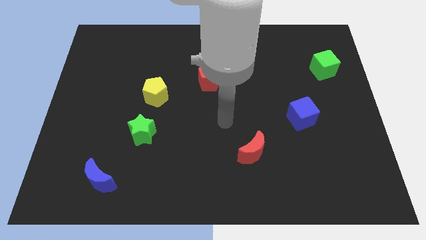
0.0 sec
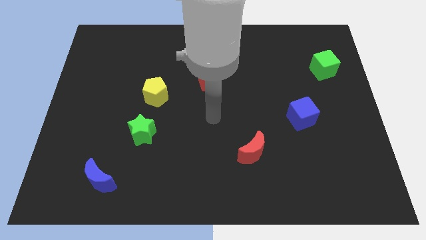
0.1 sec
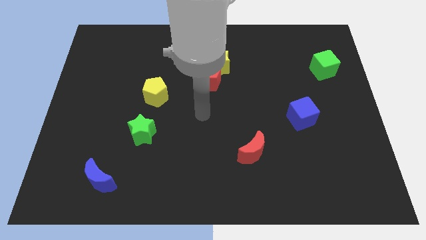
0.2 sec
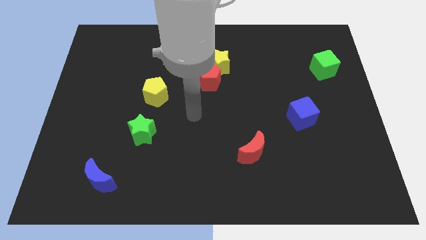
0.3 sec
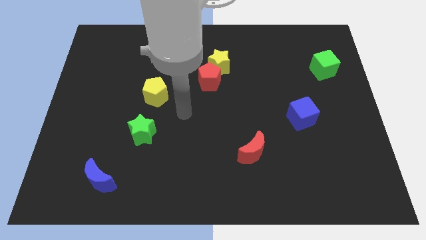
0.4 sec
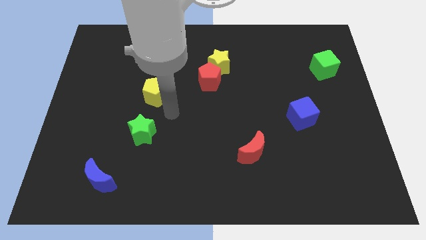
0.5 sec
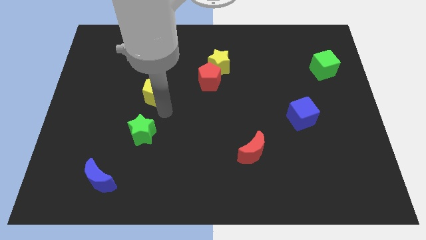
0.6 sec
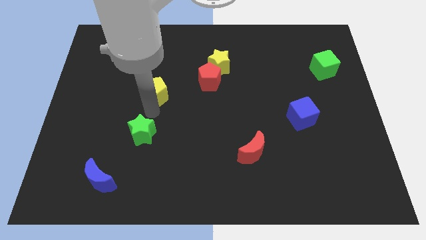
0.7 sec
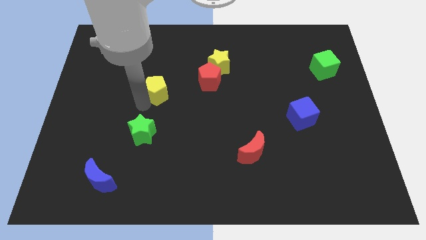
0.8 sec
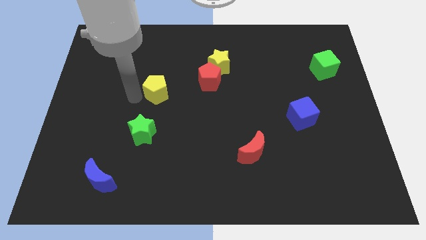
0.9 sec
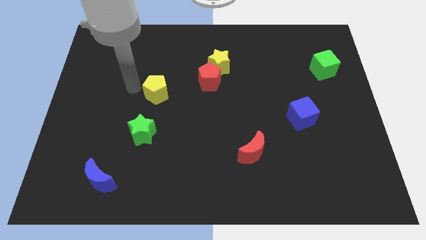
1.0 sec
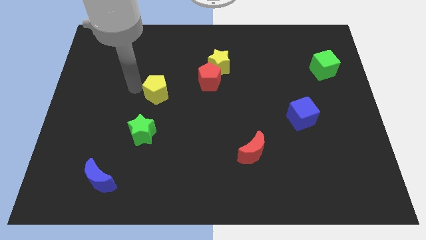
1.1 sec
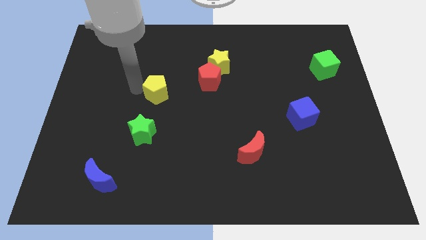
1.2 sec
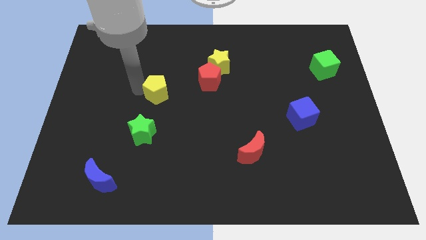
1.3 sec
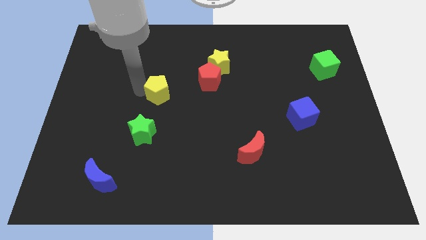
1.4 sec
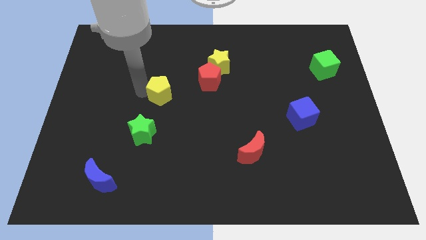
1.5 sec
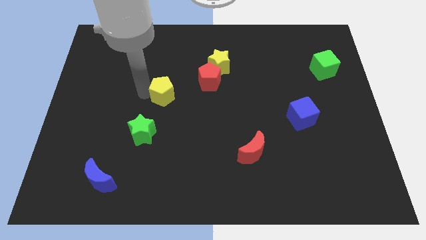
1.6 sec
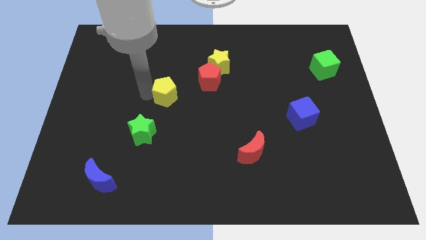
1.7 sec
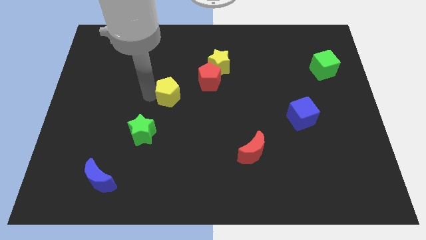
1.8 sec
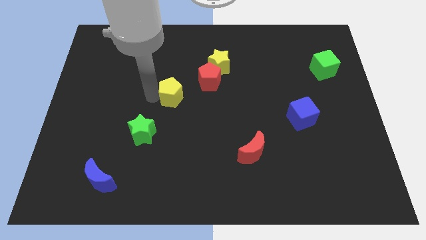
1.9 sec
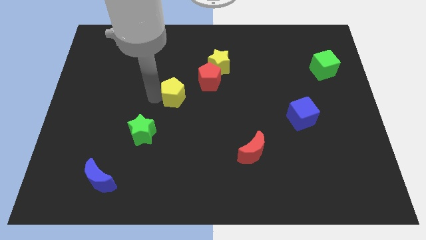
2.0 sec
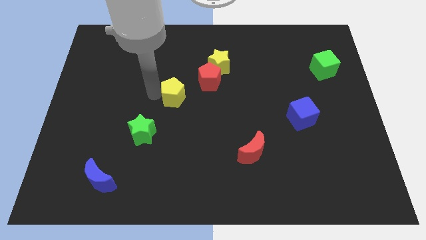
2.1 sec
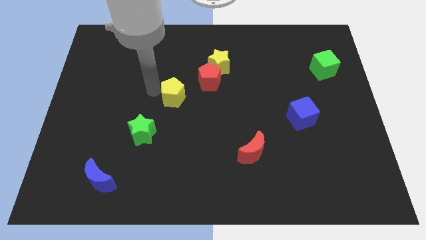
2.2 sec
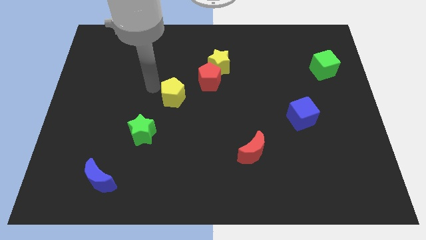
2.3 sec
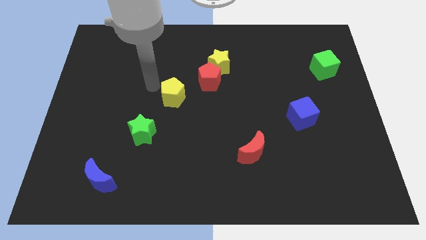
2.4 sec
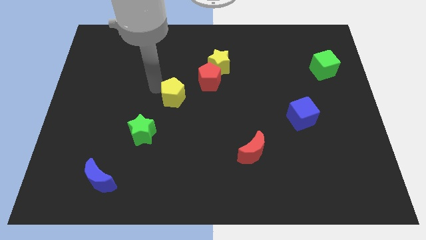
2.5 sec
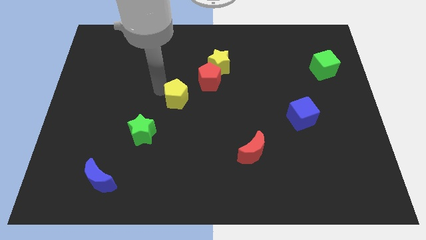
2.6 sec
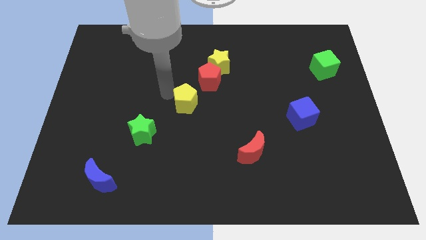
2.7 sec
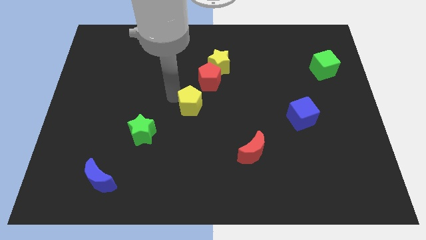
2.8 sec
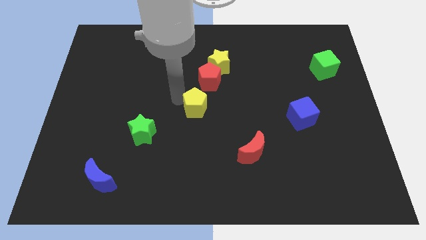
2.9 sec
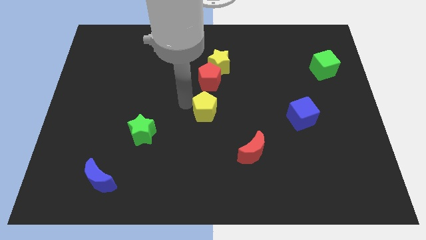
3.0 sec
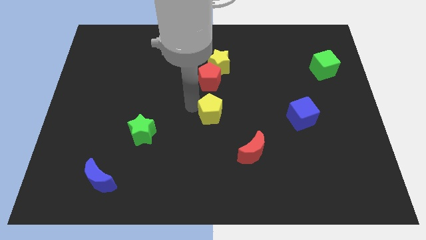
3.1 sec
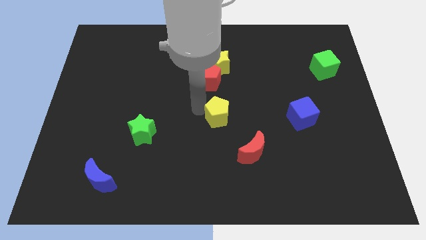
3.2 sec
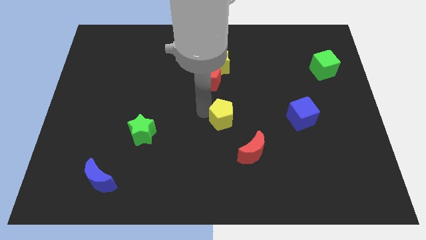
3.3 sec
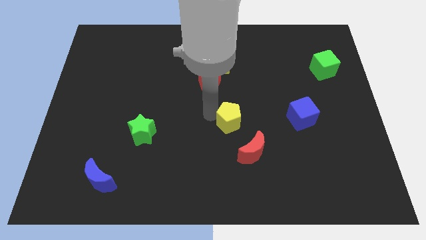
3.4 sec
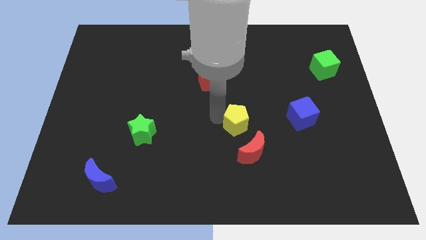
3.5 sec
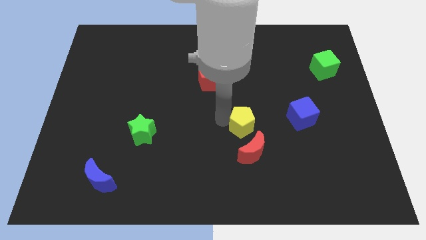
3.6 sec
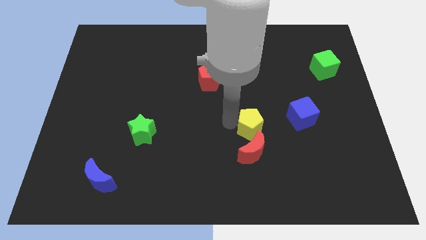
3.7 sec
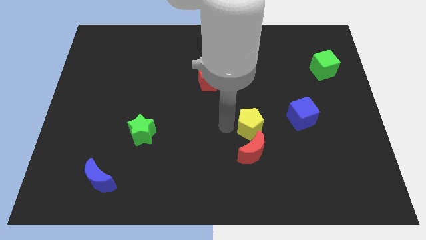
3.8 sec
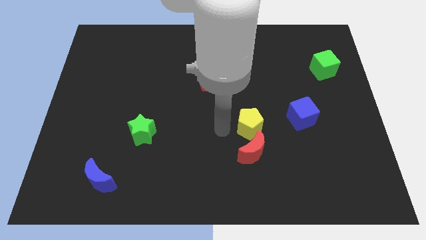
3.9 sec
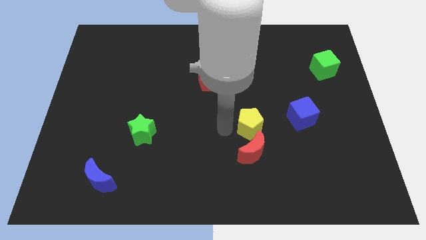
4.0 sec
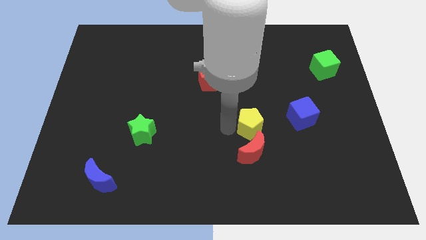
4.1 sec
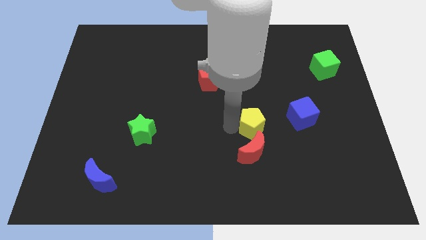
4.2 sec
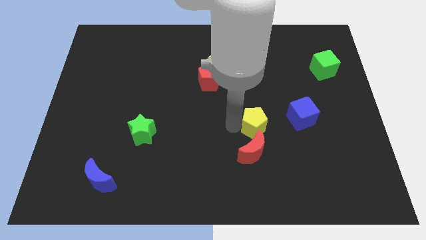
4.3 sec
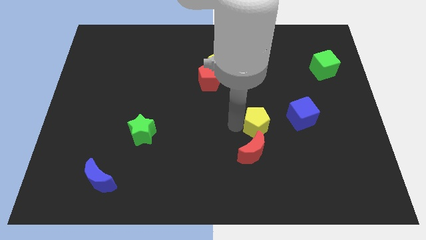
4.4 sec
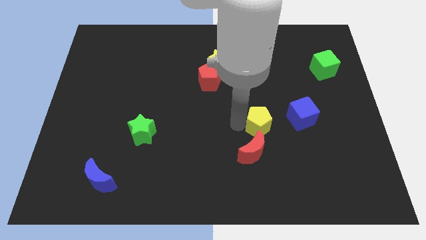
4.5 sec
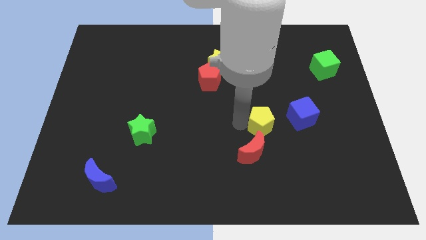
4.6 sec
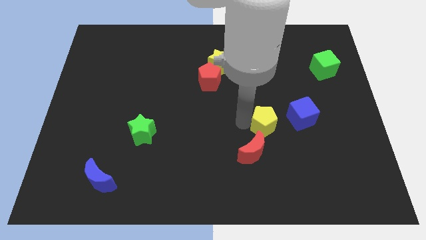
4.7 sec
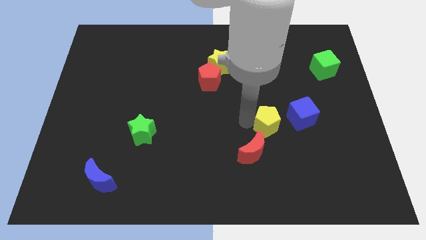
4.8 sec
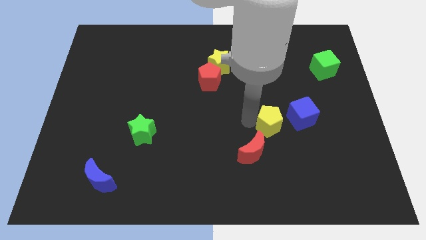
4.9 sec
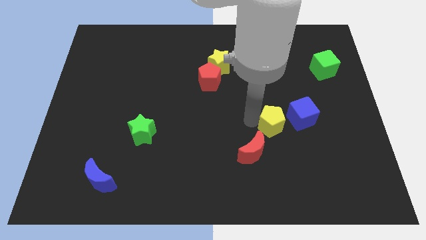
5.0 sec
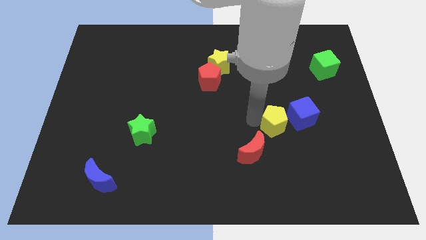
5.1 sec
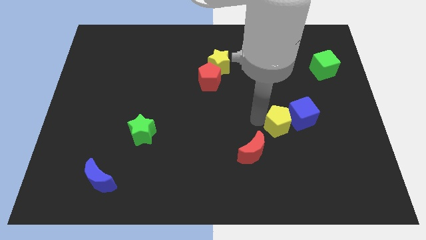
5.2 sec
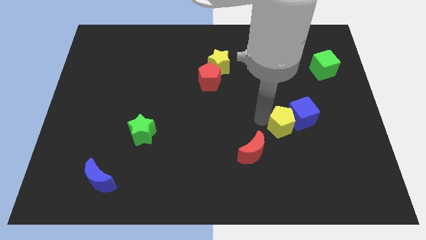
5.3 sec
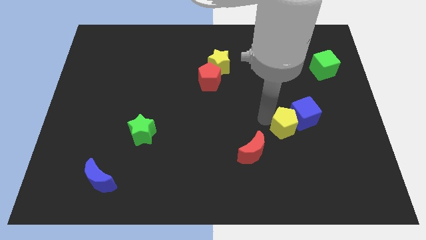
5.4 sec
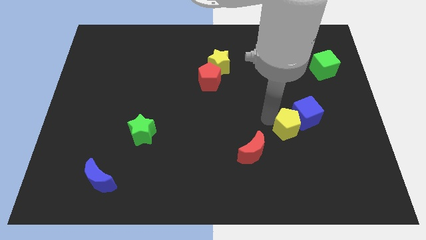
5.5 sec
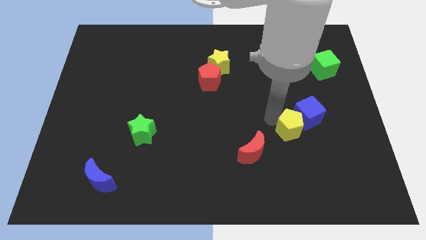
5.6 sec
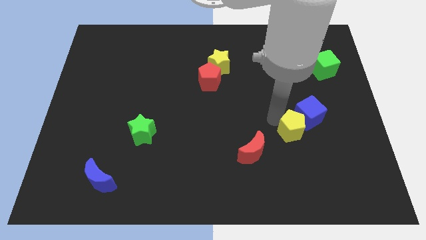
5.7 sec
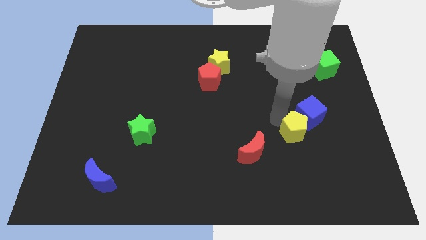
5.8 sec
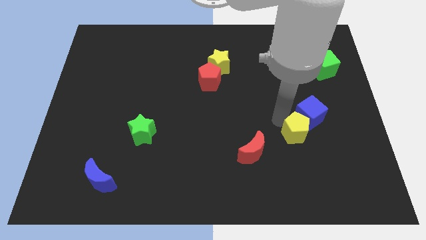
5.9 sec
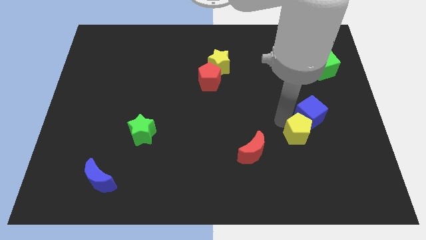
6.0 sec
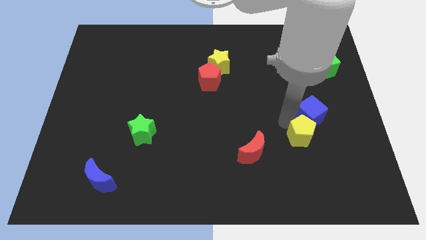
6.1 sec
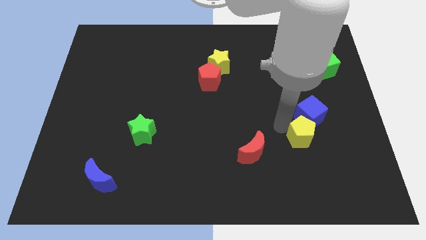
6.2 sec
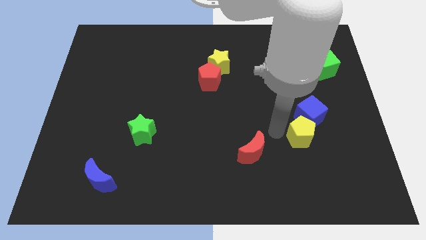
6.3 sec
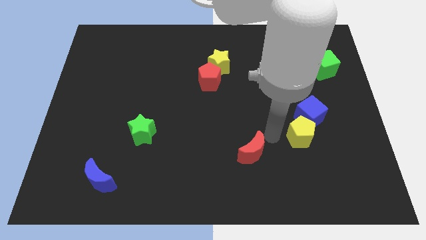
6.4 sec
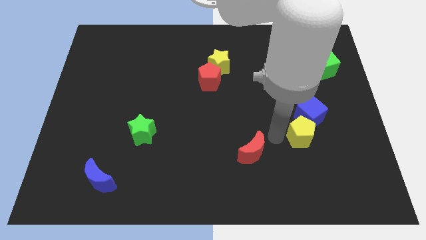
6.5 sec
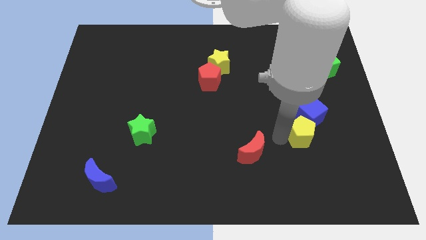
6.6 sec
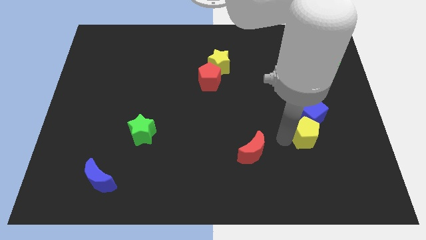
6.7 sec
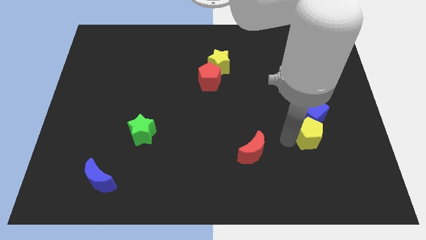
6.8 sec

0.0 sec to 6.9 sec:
push the yellow pentagon to the bottom right of the blue cube
